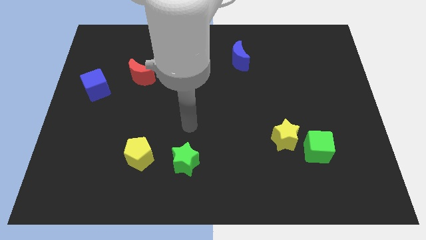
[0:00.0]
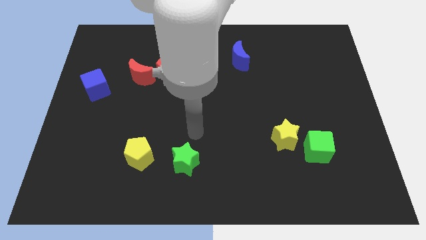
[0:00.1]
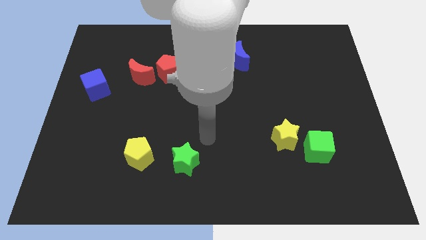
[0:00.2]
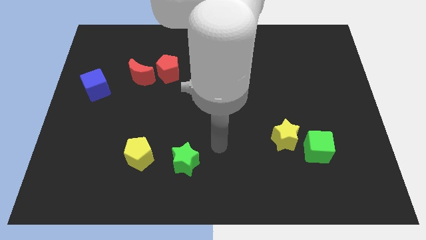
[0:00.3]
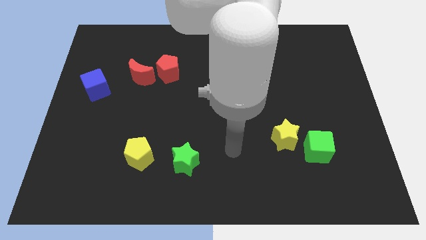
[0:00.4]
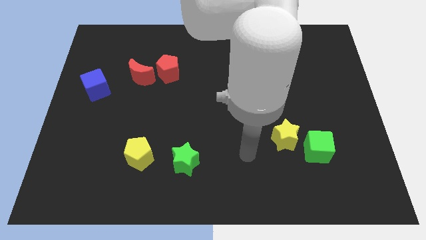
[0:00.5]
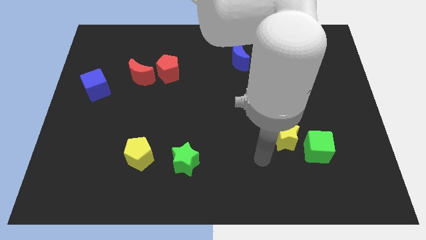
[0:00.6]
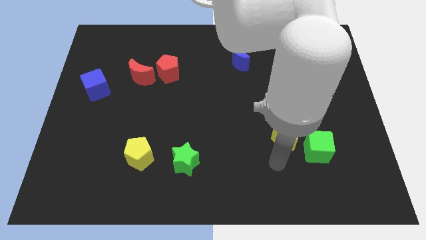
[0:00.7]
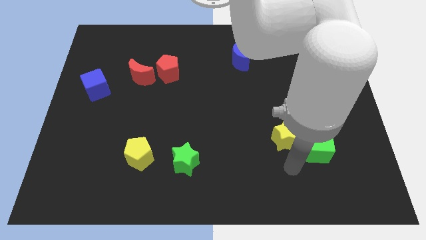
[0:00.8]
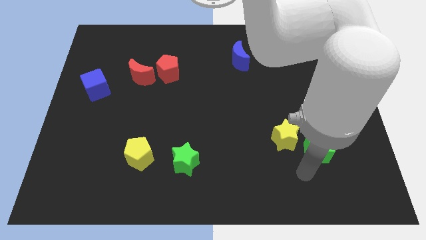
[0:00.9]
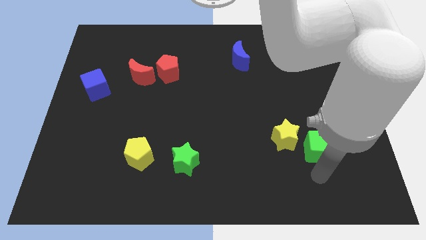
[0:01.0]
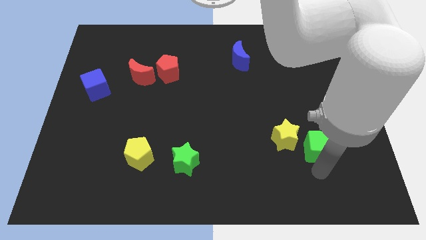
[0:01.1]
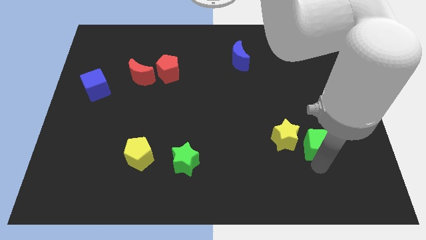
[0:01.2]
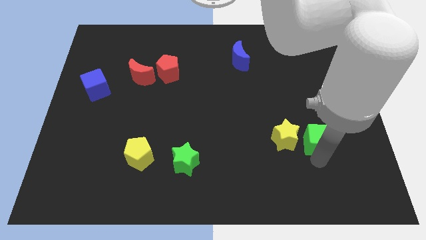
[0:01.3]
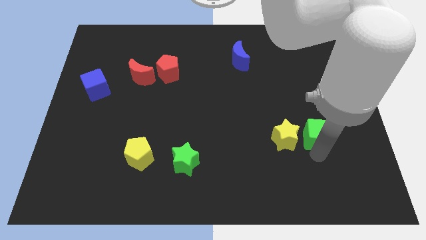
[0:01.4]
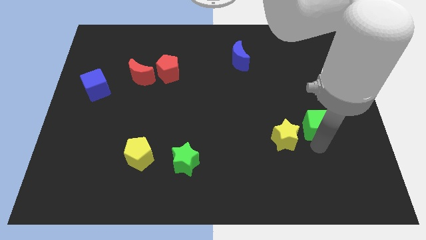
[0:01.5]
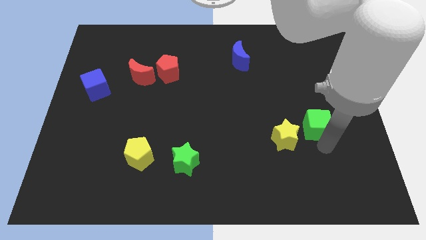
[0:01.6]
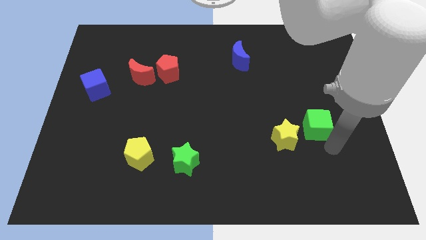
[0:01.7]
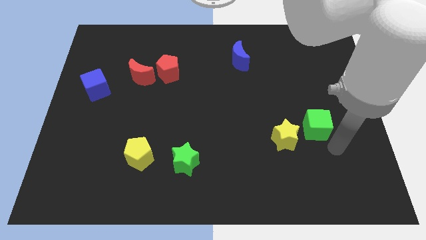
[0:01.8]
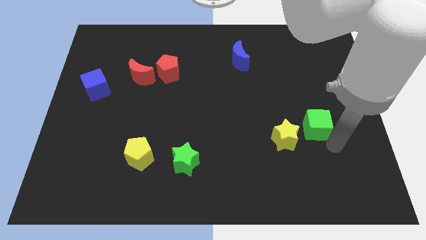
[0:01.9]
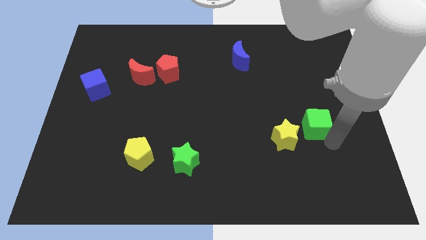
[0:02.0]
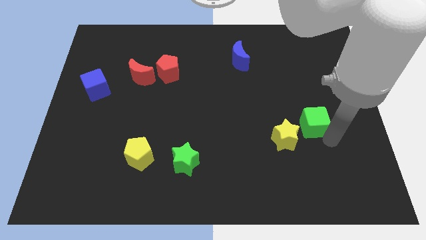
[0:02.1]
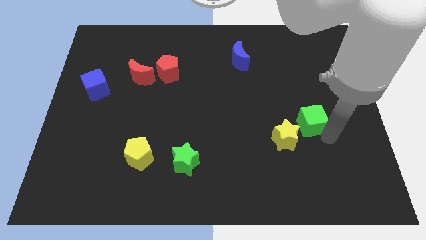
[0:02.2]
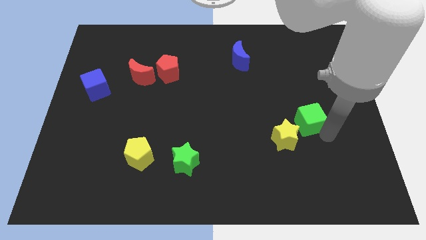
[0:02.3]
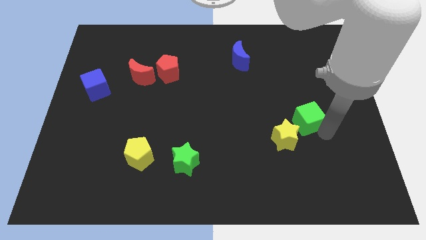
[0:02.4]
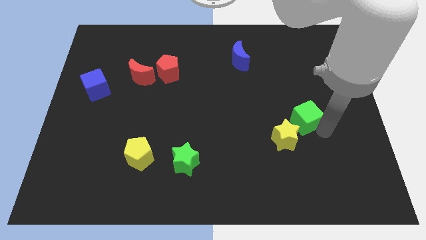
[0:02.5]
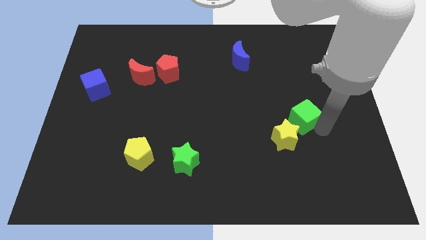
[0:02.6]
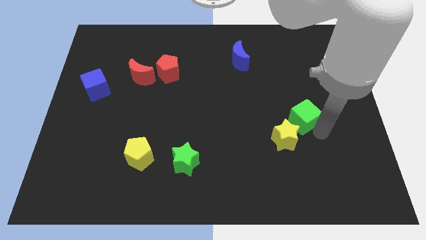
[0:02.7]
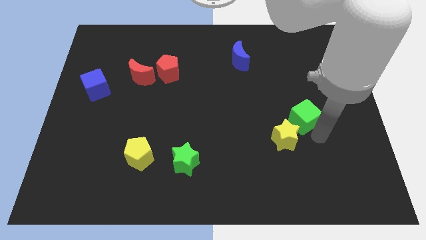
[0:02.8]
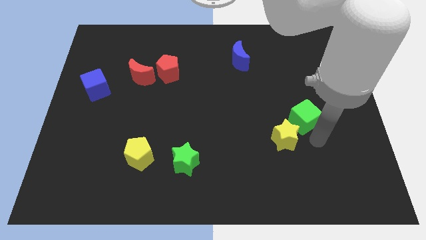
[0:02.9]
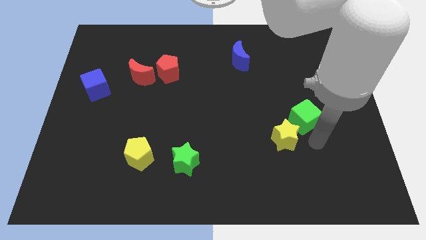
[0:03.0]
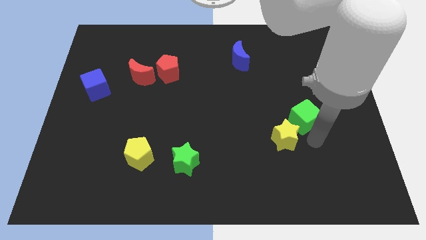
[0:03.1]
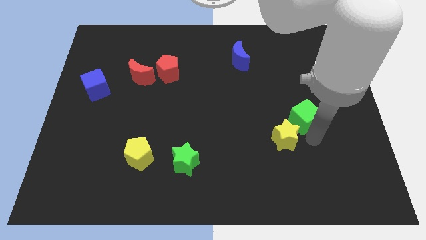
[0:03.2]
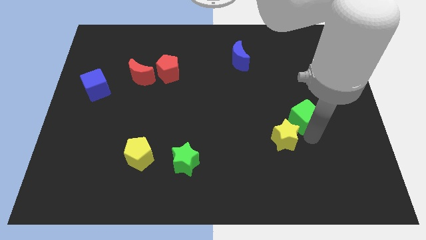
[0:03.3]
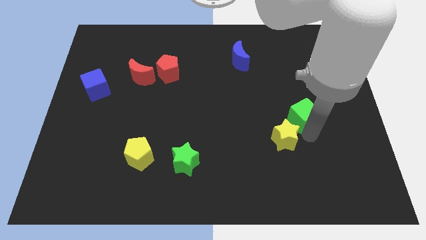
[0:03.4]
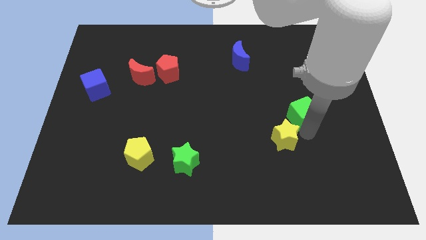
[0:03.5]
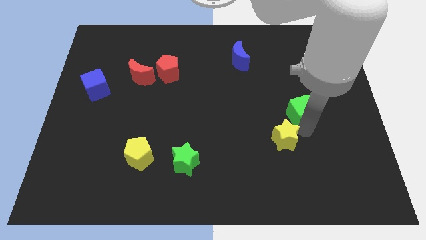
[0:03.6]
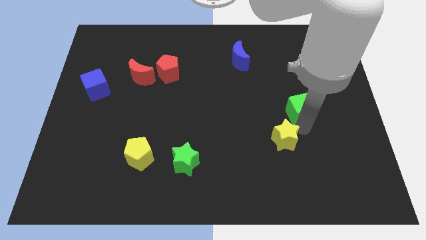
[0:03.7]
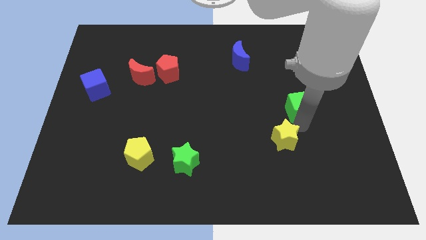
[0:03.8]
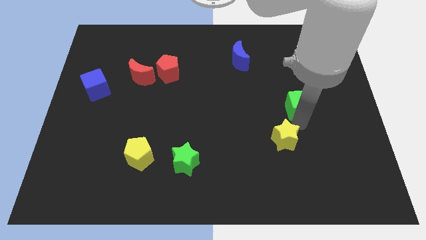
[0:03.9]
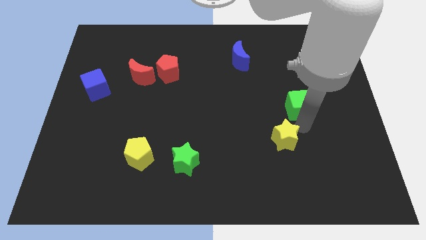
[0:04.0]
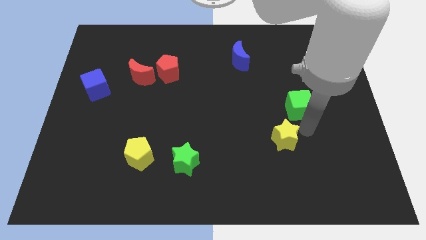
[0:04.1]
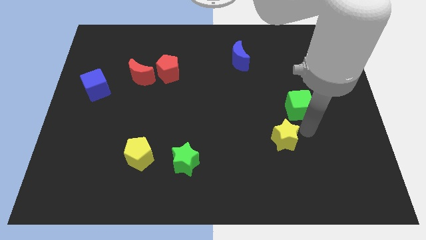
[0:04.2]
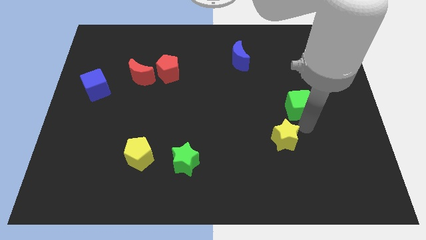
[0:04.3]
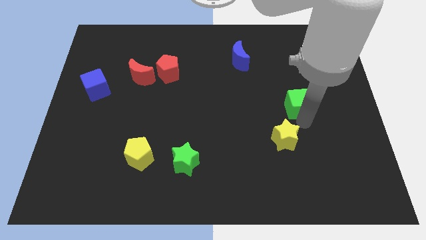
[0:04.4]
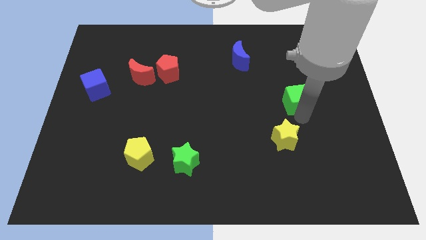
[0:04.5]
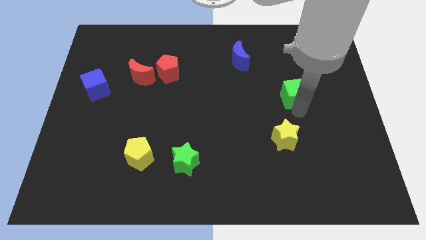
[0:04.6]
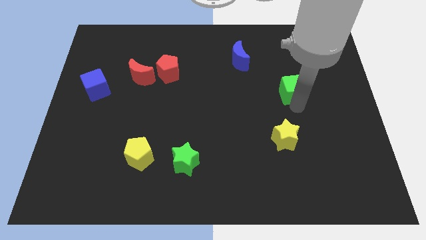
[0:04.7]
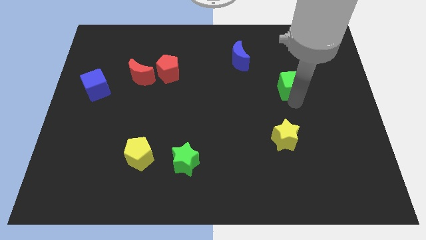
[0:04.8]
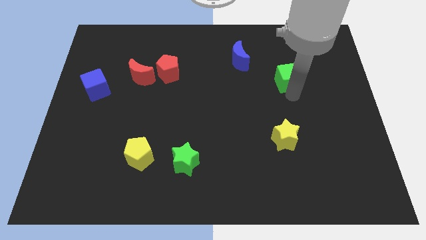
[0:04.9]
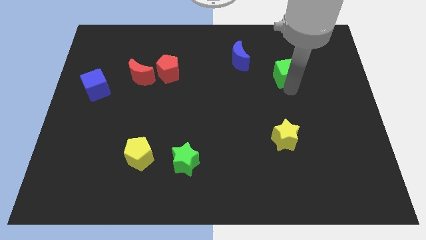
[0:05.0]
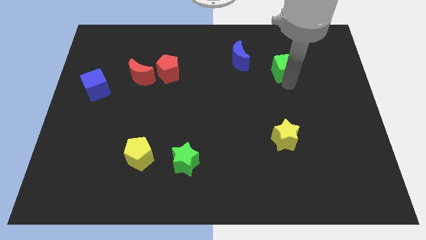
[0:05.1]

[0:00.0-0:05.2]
slide the green cube to the right of the blue moon

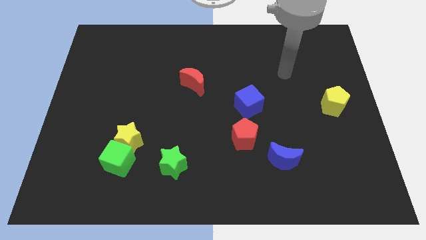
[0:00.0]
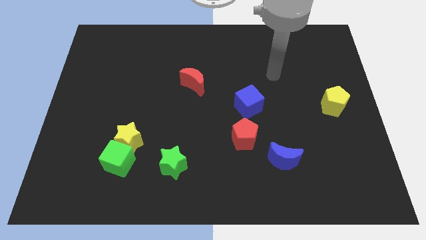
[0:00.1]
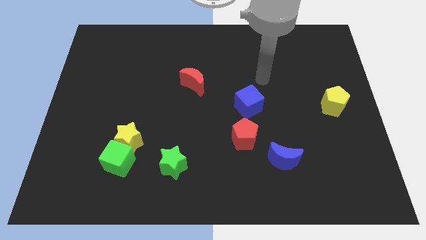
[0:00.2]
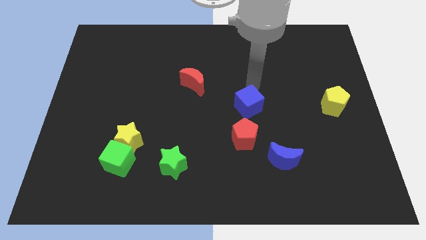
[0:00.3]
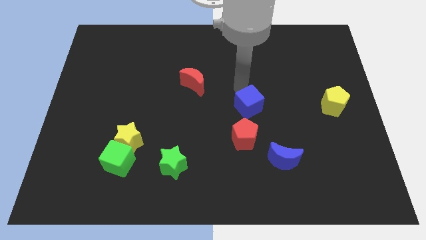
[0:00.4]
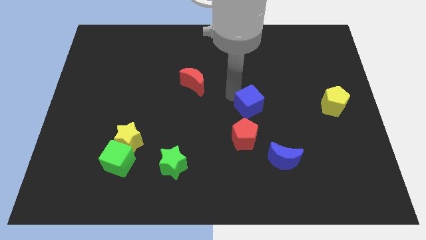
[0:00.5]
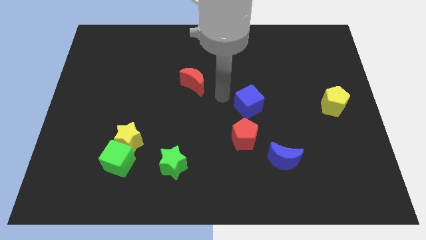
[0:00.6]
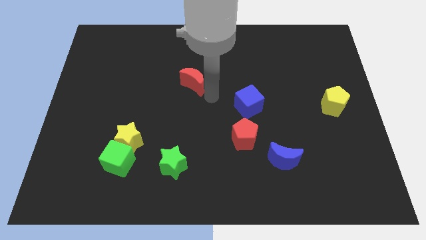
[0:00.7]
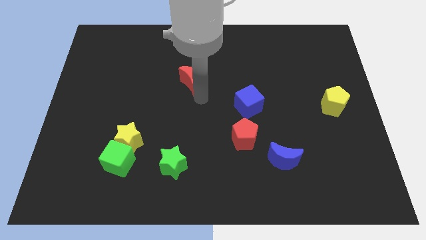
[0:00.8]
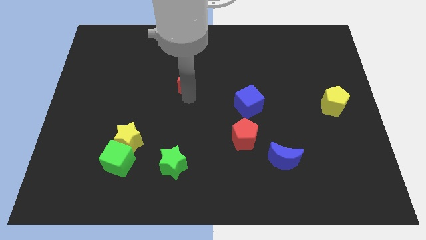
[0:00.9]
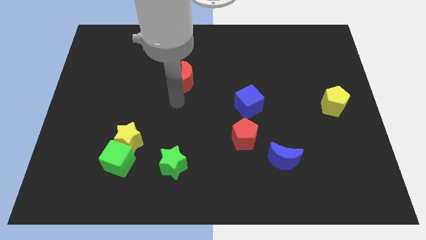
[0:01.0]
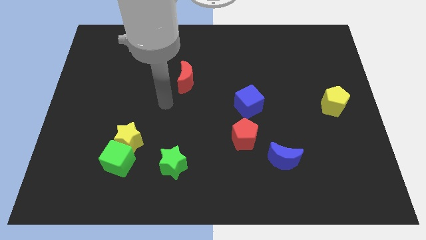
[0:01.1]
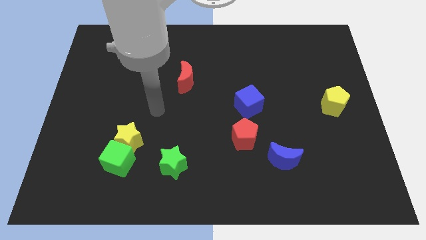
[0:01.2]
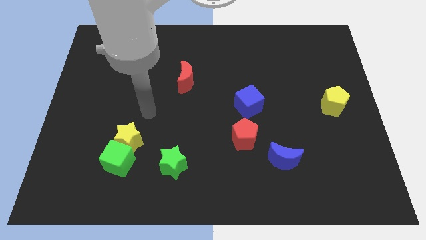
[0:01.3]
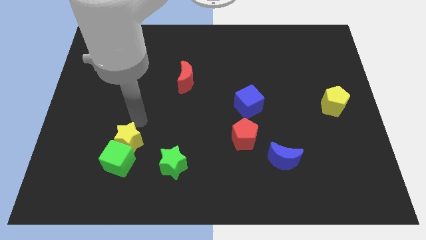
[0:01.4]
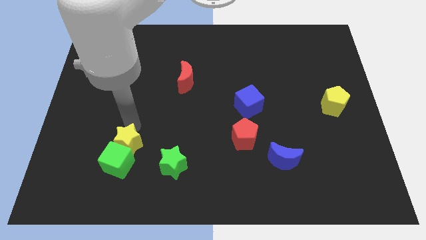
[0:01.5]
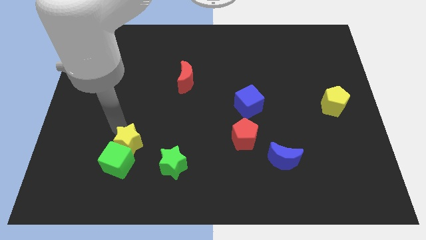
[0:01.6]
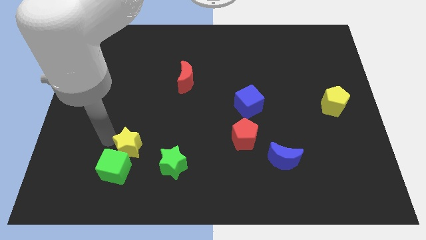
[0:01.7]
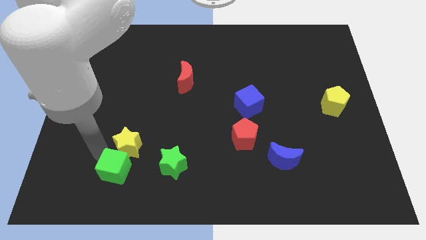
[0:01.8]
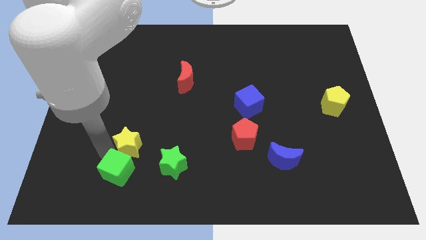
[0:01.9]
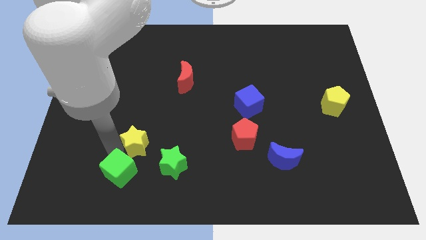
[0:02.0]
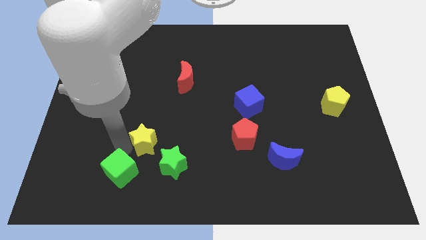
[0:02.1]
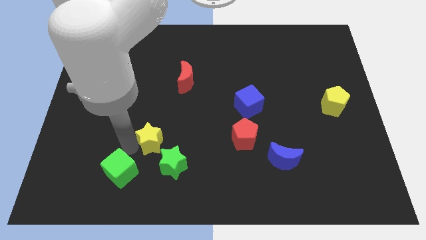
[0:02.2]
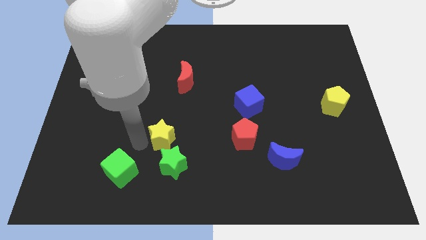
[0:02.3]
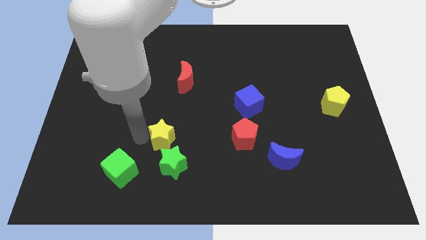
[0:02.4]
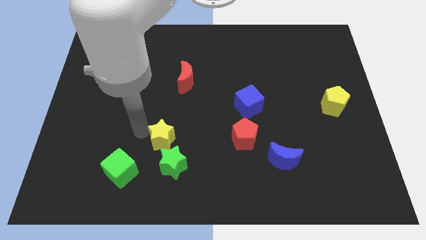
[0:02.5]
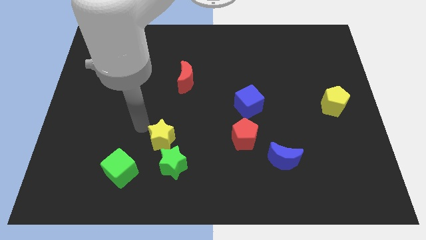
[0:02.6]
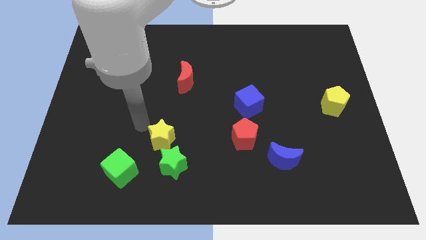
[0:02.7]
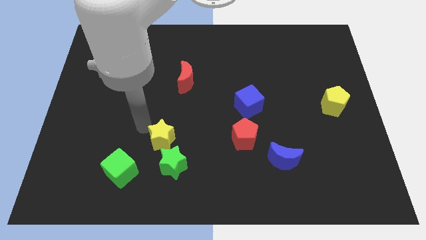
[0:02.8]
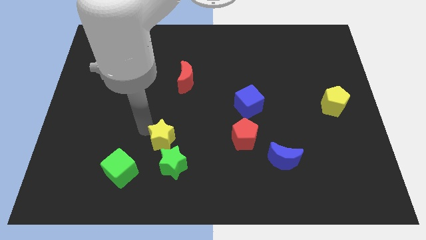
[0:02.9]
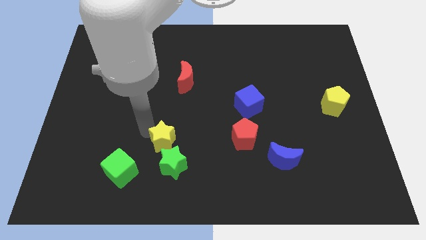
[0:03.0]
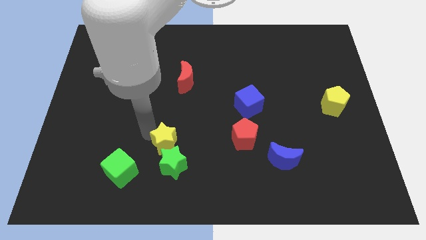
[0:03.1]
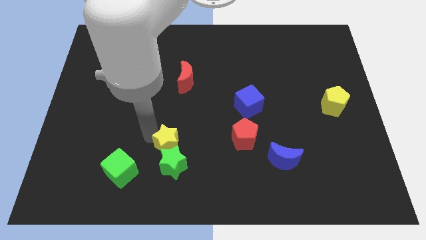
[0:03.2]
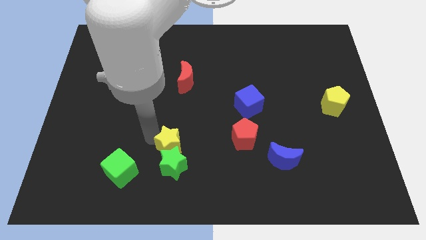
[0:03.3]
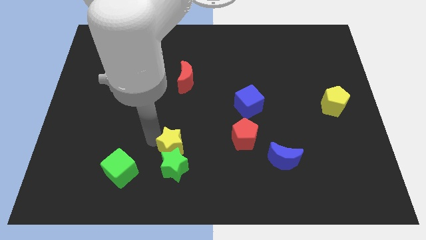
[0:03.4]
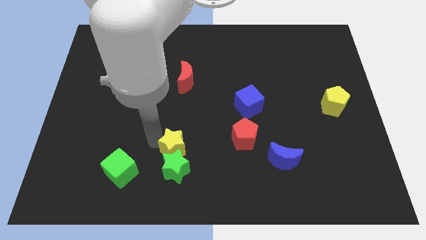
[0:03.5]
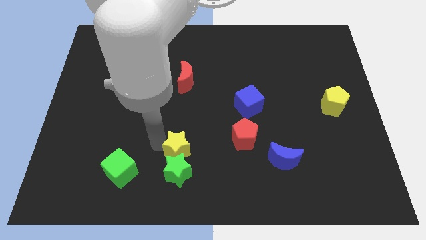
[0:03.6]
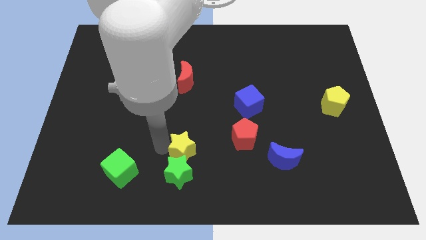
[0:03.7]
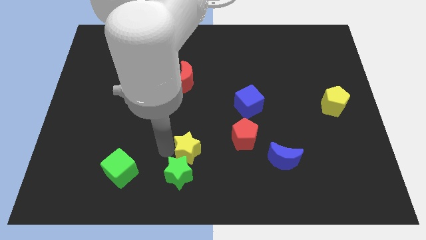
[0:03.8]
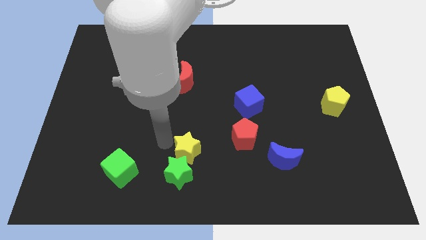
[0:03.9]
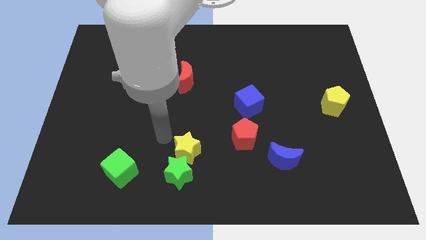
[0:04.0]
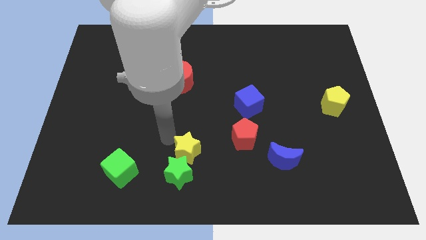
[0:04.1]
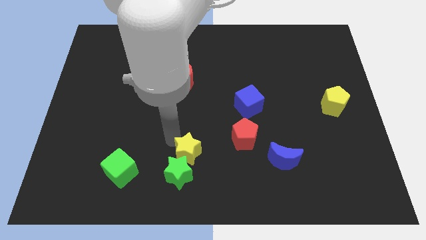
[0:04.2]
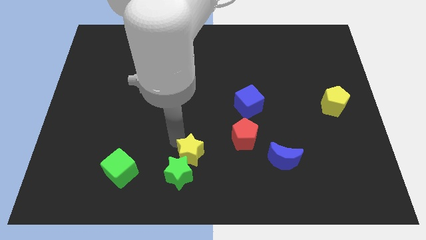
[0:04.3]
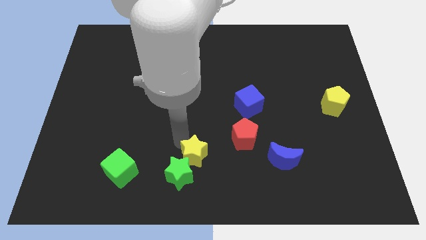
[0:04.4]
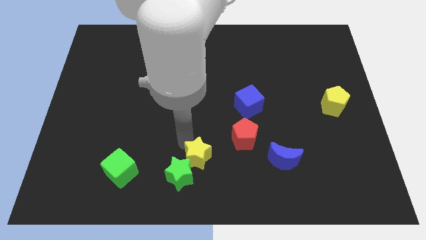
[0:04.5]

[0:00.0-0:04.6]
slide the yellow star to the right of the green star
